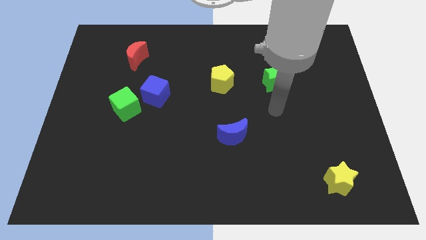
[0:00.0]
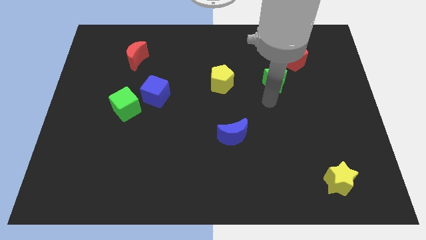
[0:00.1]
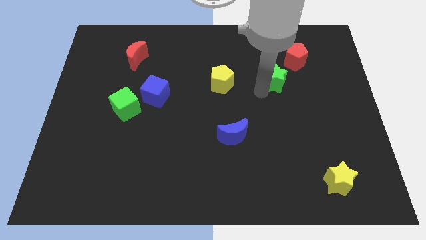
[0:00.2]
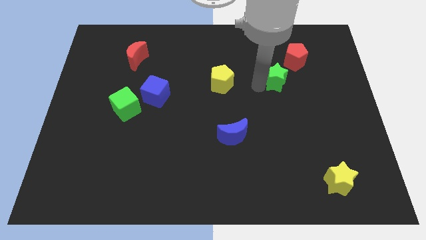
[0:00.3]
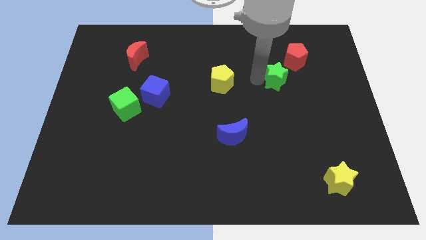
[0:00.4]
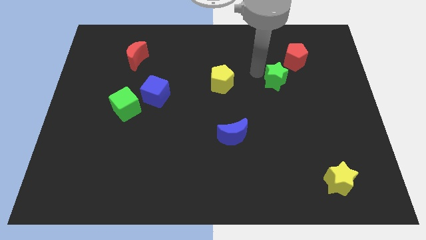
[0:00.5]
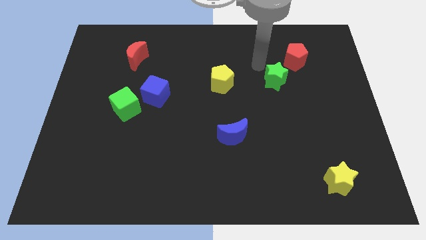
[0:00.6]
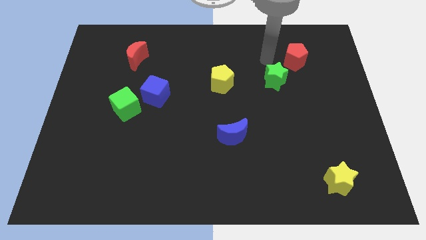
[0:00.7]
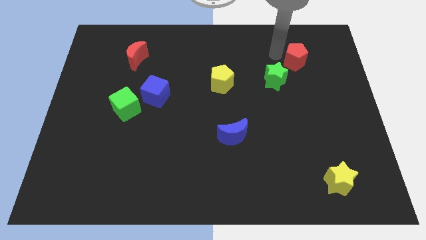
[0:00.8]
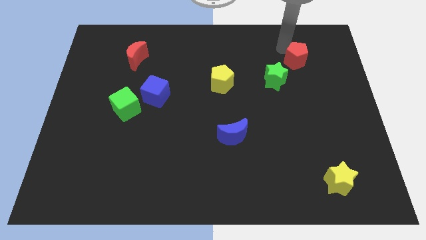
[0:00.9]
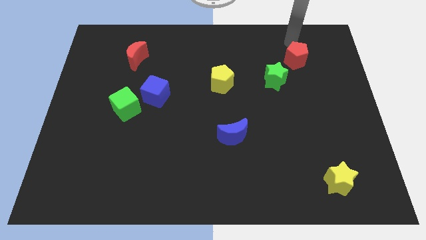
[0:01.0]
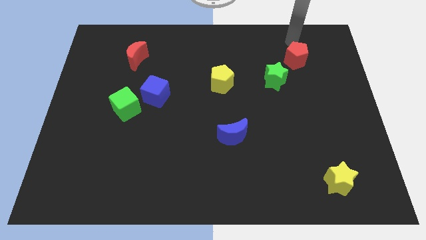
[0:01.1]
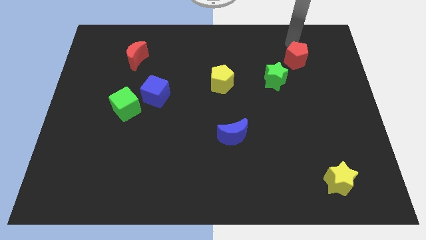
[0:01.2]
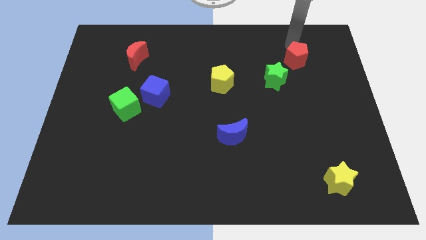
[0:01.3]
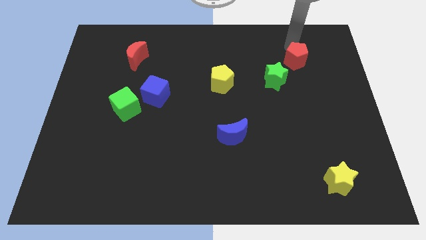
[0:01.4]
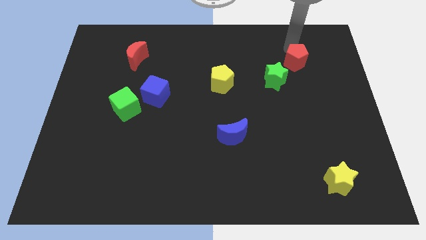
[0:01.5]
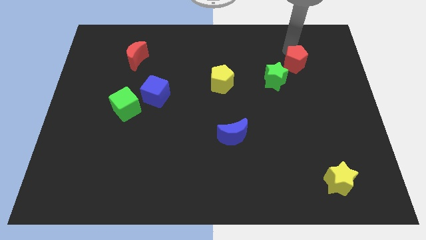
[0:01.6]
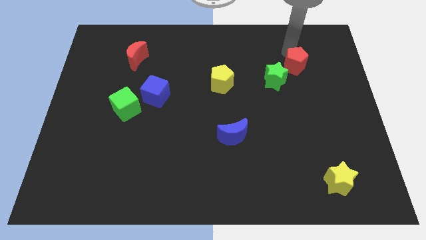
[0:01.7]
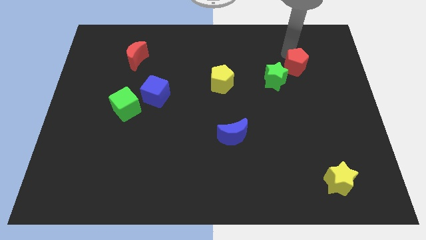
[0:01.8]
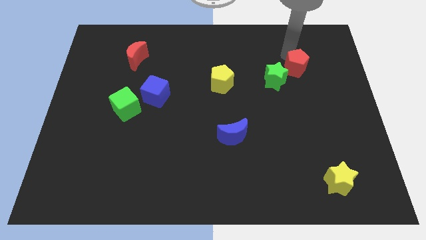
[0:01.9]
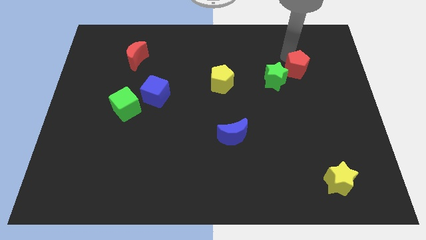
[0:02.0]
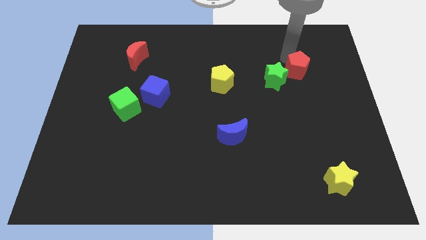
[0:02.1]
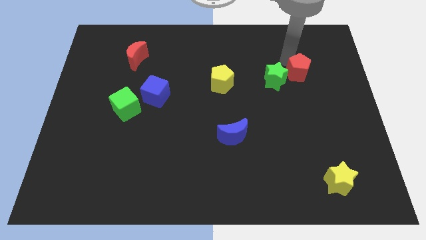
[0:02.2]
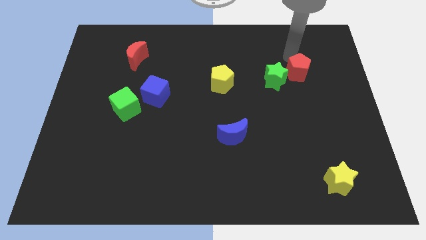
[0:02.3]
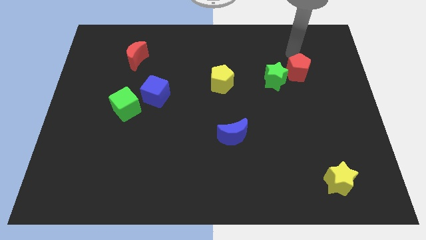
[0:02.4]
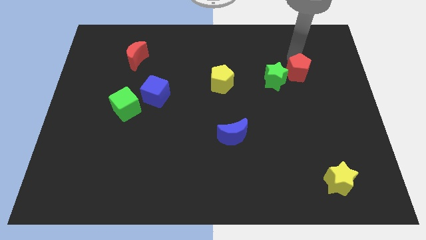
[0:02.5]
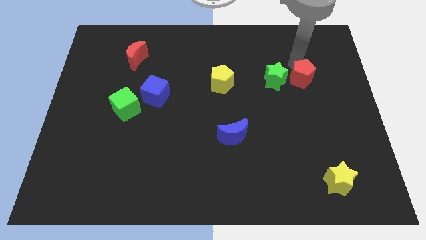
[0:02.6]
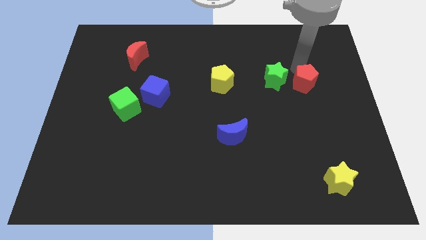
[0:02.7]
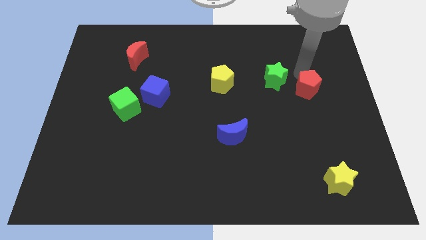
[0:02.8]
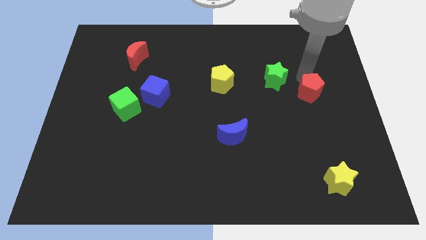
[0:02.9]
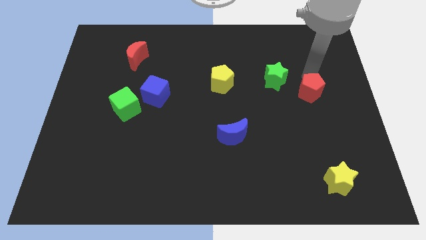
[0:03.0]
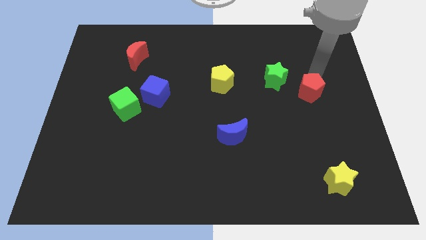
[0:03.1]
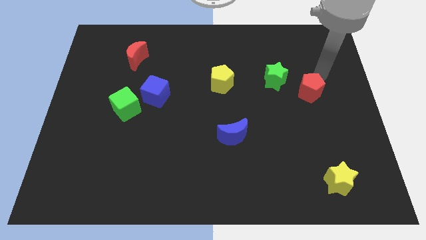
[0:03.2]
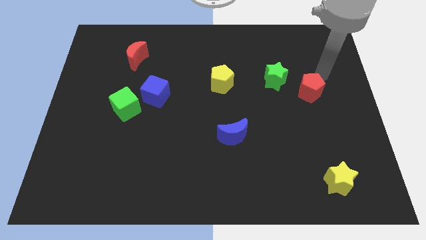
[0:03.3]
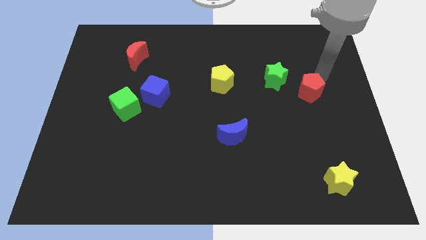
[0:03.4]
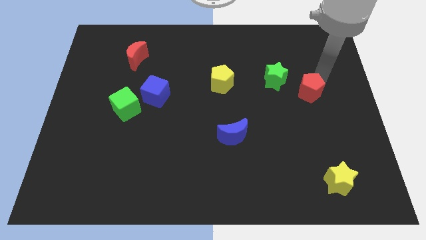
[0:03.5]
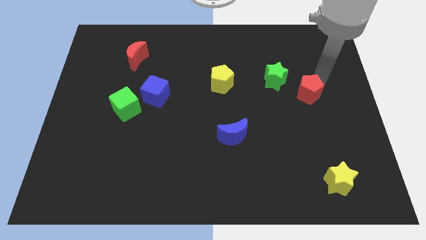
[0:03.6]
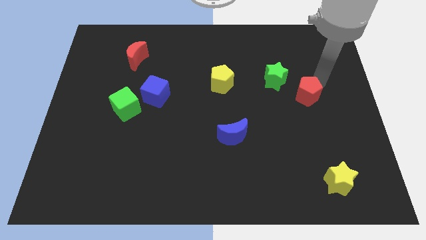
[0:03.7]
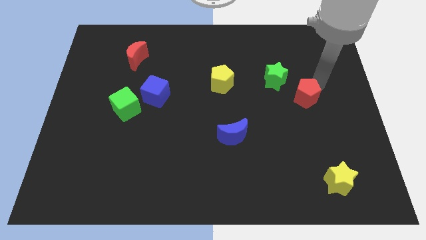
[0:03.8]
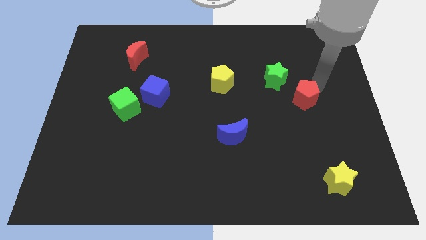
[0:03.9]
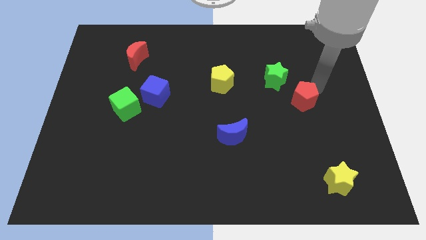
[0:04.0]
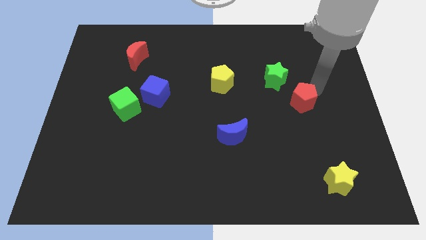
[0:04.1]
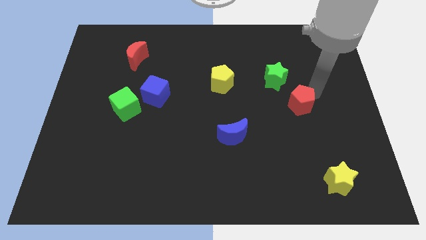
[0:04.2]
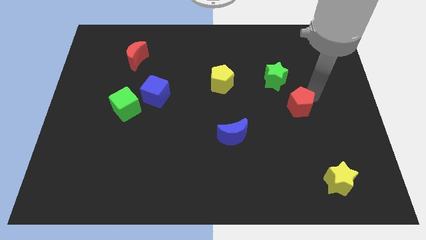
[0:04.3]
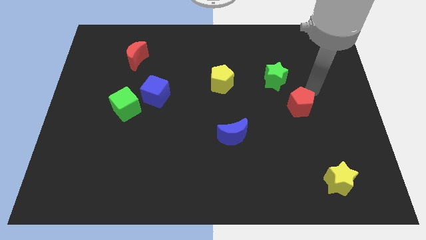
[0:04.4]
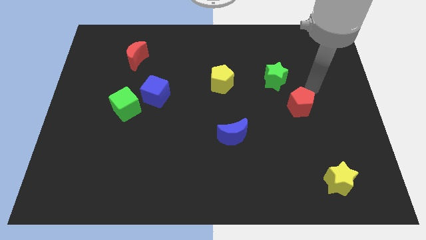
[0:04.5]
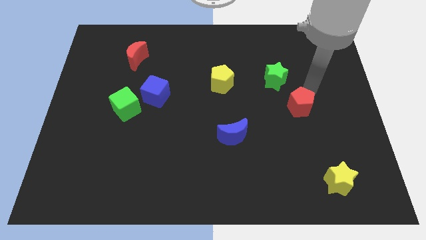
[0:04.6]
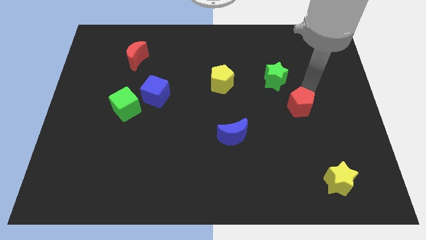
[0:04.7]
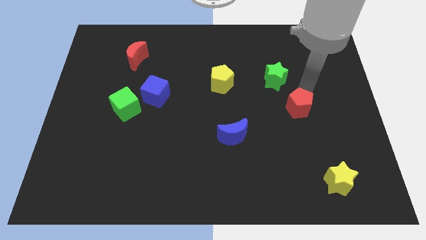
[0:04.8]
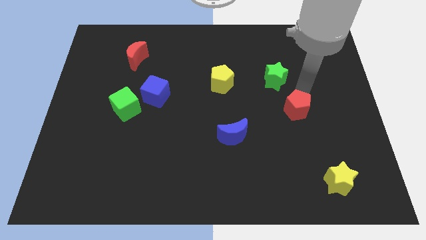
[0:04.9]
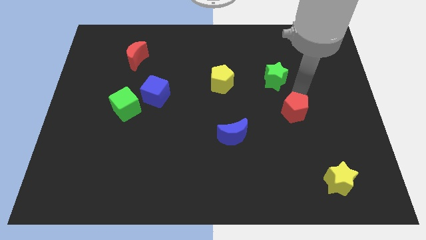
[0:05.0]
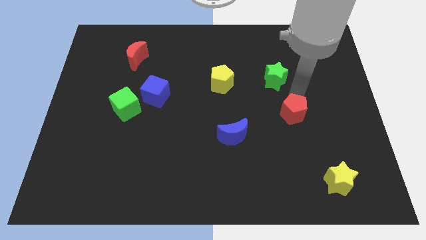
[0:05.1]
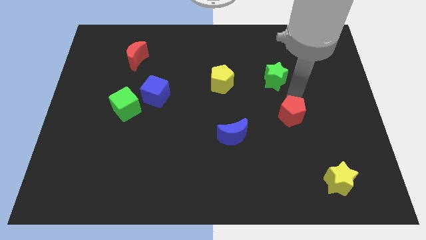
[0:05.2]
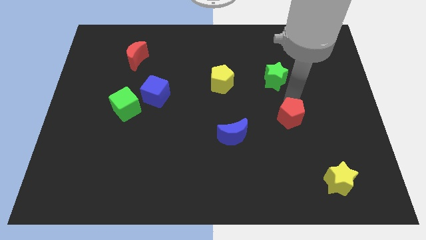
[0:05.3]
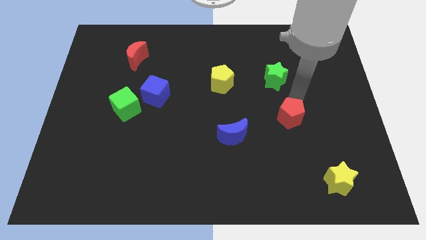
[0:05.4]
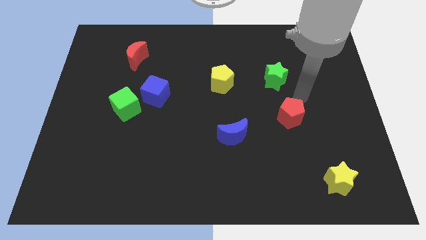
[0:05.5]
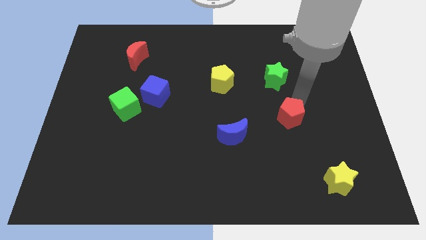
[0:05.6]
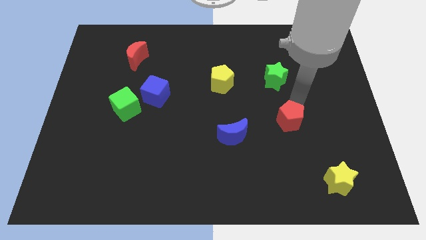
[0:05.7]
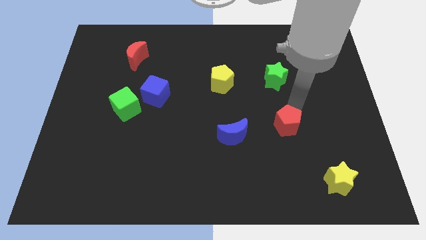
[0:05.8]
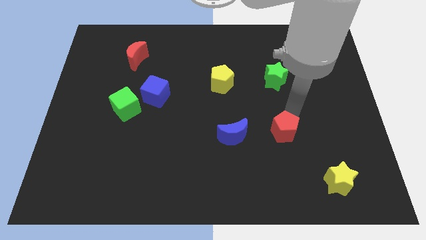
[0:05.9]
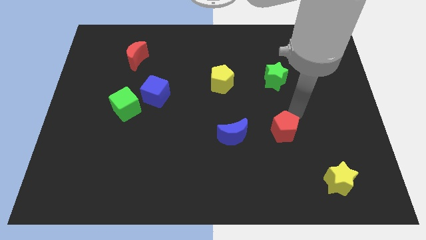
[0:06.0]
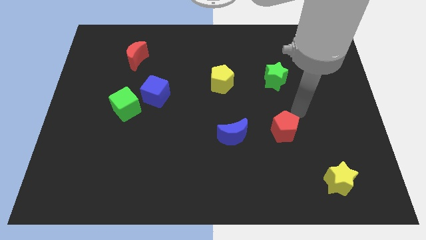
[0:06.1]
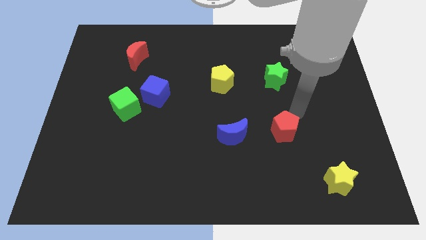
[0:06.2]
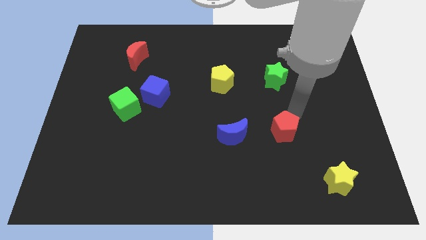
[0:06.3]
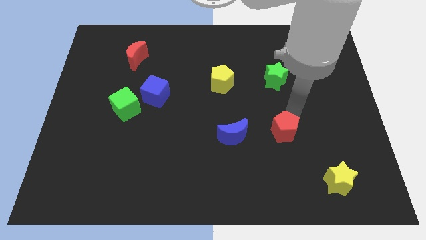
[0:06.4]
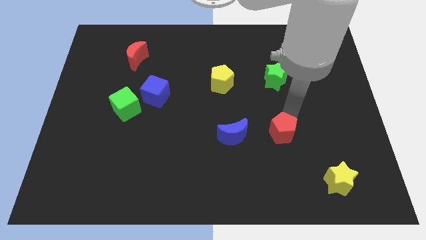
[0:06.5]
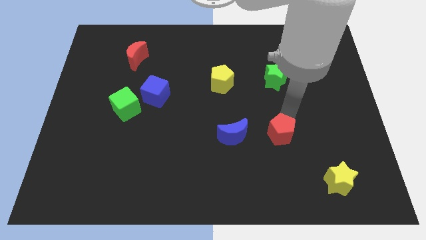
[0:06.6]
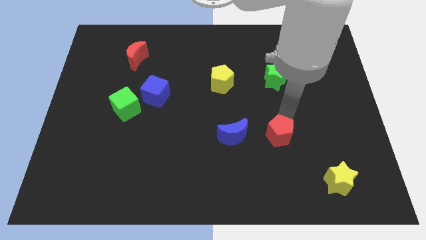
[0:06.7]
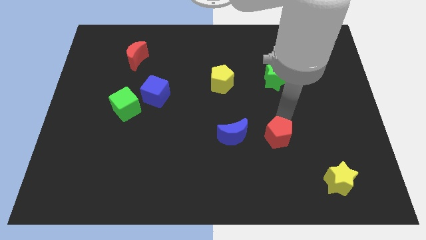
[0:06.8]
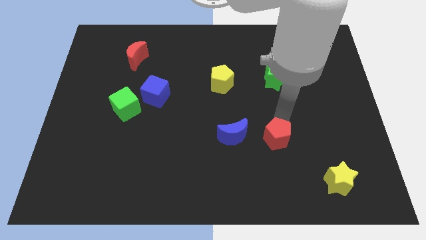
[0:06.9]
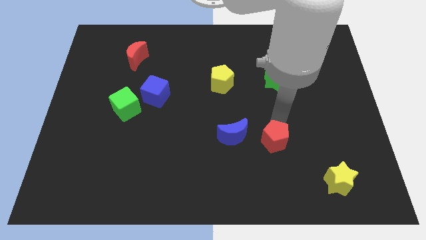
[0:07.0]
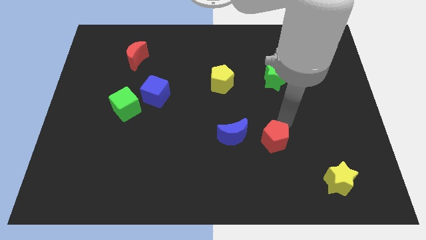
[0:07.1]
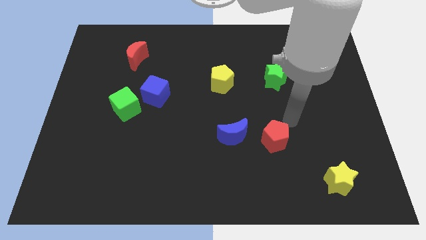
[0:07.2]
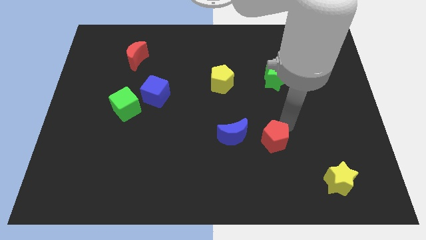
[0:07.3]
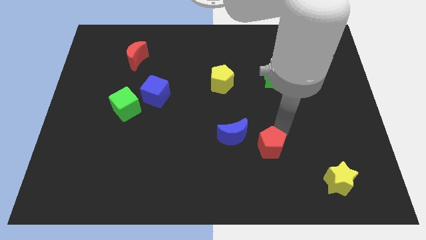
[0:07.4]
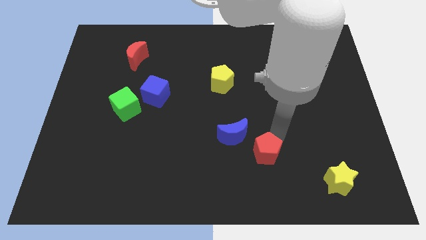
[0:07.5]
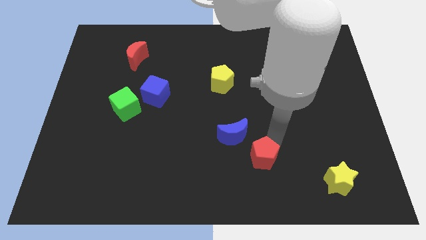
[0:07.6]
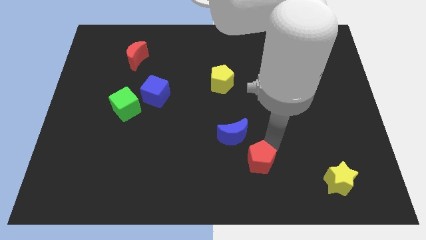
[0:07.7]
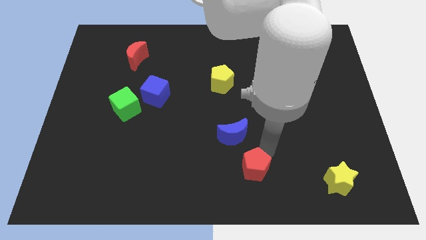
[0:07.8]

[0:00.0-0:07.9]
put the red pentagon to the bottom
